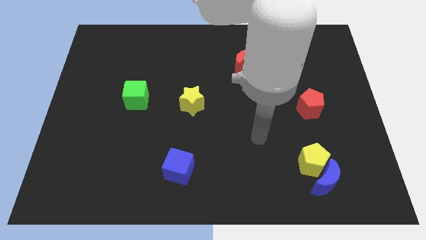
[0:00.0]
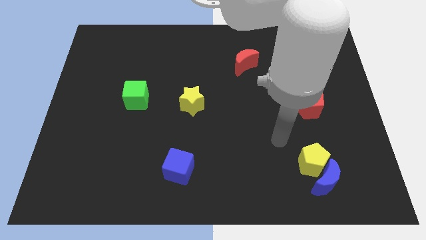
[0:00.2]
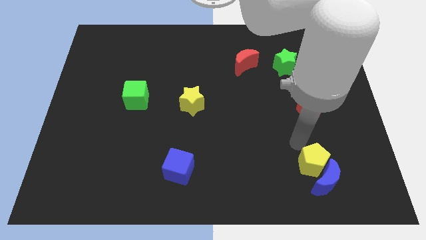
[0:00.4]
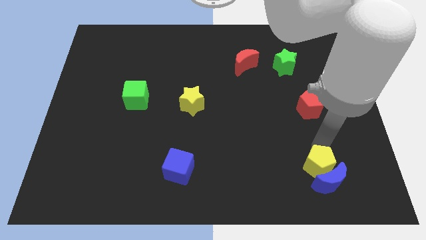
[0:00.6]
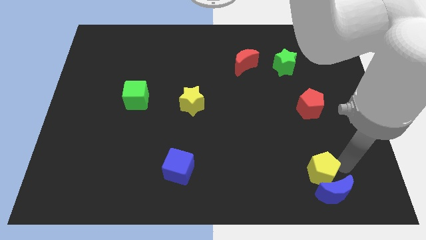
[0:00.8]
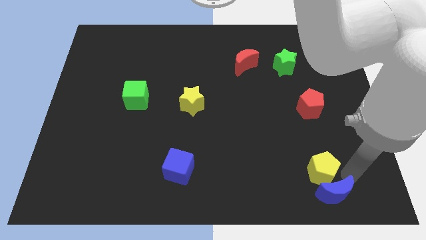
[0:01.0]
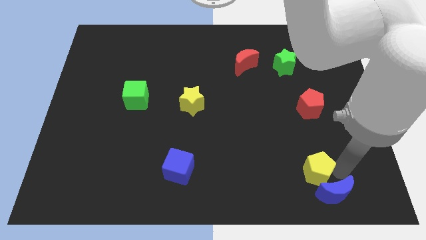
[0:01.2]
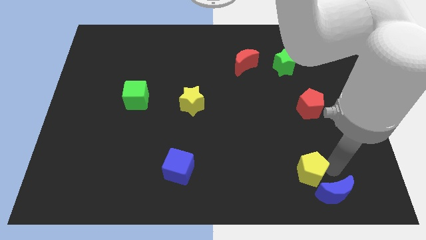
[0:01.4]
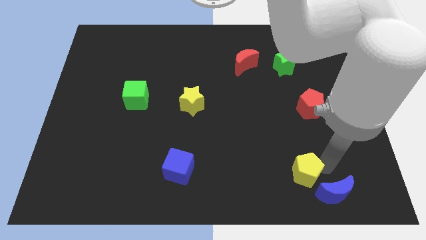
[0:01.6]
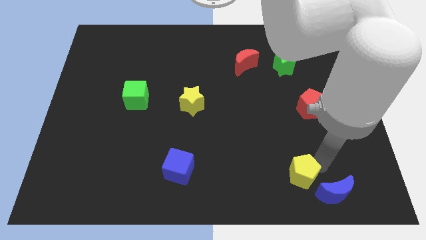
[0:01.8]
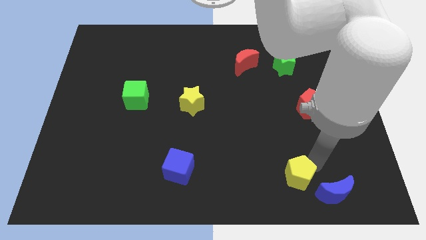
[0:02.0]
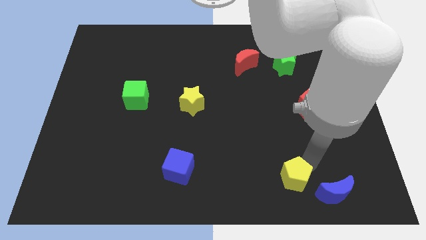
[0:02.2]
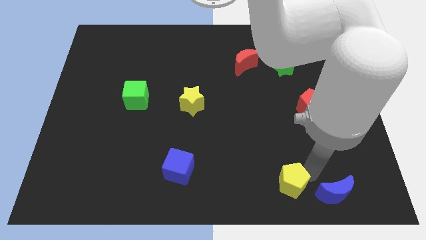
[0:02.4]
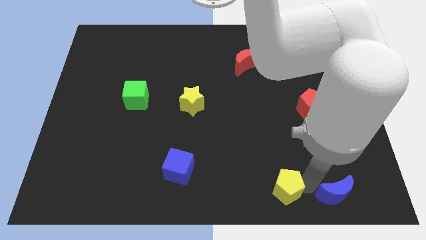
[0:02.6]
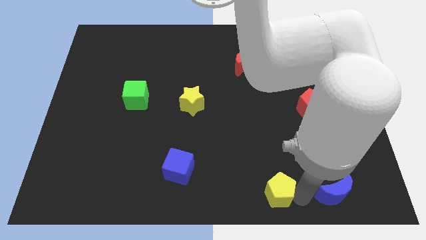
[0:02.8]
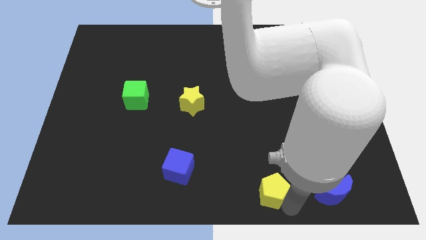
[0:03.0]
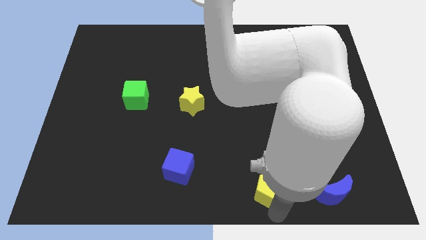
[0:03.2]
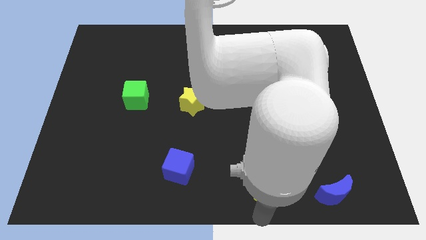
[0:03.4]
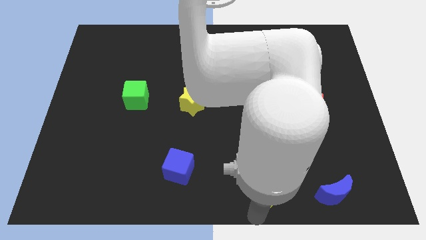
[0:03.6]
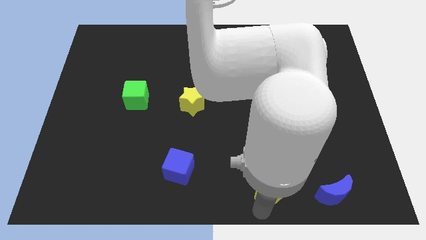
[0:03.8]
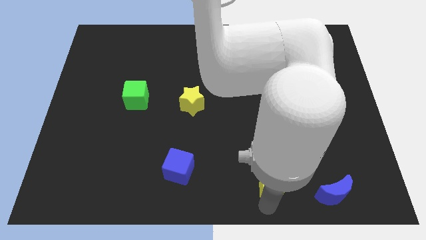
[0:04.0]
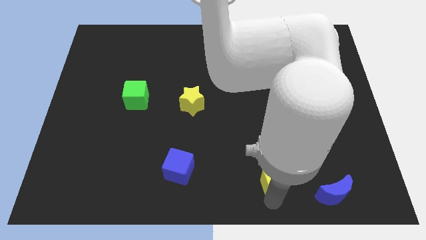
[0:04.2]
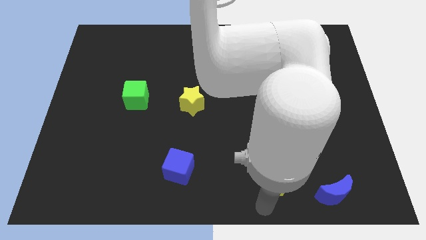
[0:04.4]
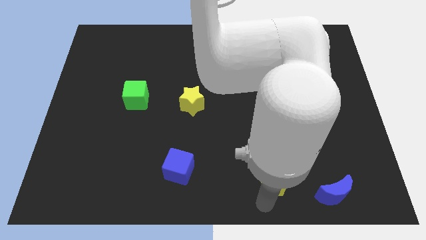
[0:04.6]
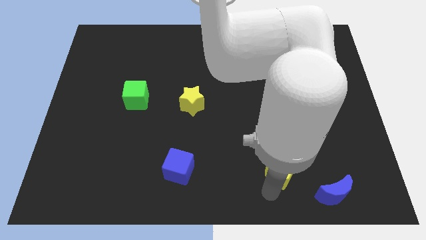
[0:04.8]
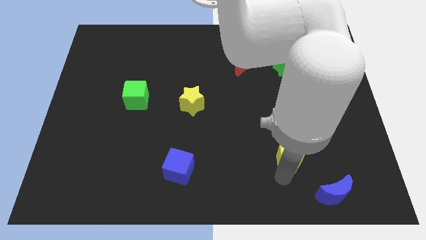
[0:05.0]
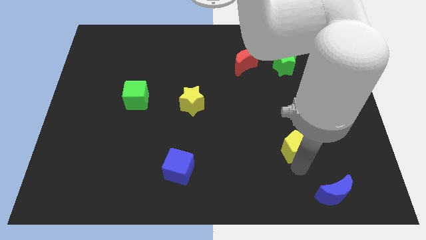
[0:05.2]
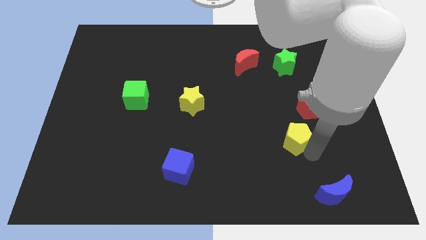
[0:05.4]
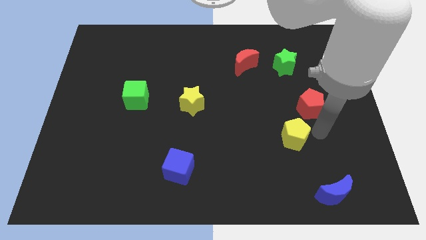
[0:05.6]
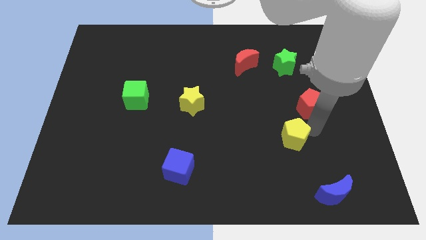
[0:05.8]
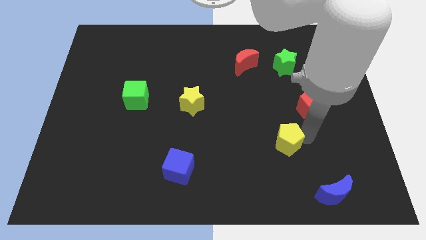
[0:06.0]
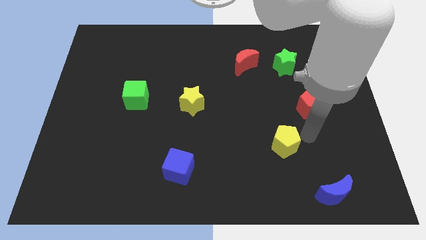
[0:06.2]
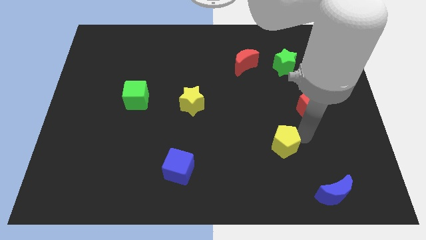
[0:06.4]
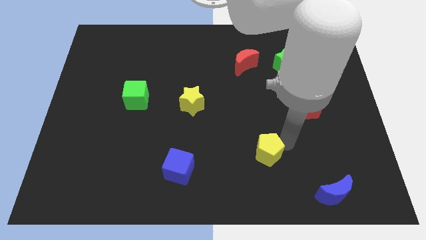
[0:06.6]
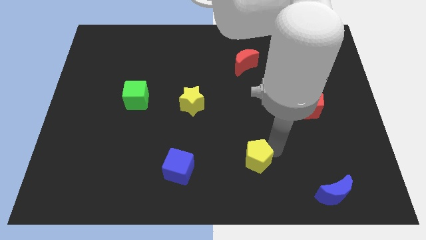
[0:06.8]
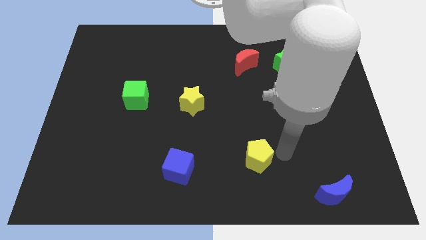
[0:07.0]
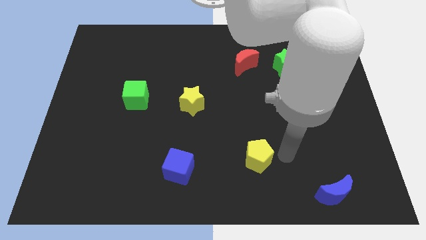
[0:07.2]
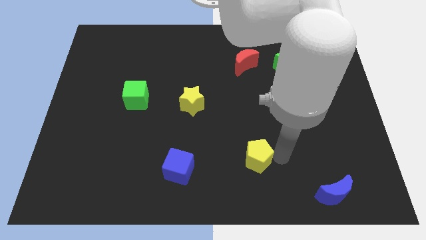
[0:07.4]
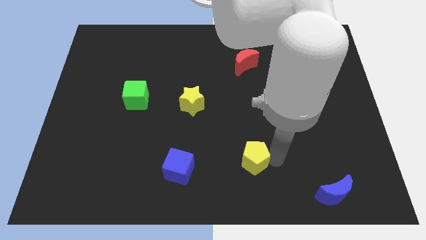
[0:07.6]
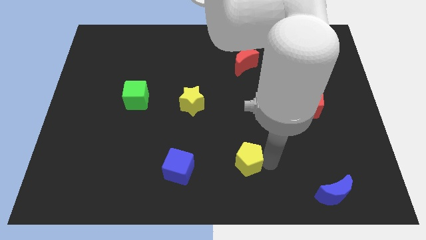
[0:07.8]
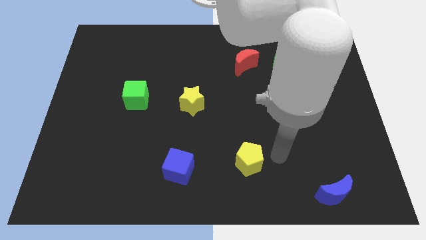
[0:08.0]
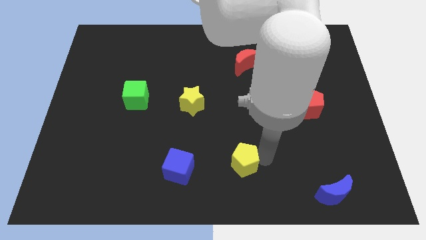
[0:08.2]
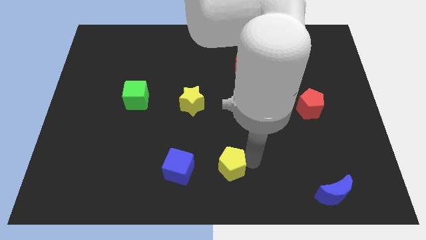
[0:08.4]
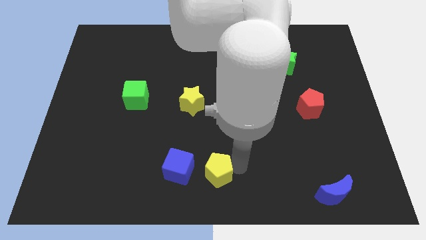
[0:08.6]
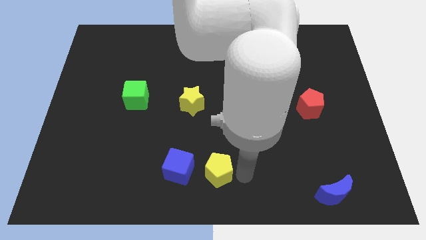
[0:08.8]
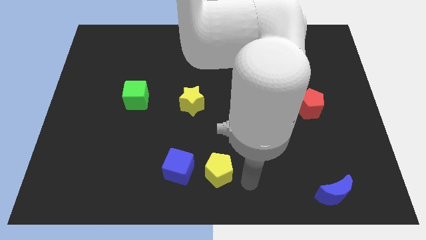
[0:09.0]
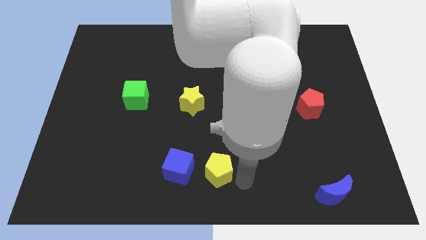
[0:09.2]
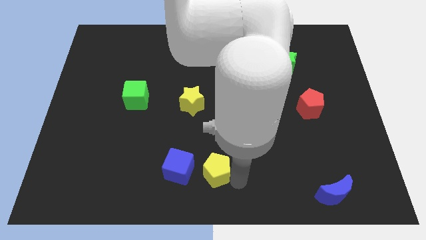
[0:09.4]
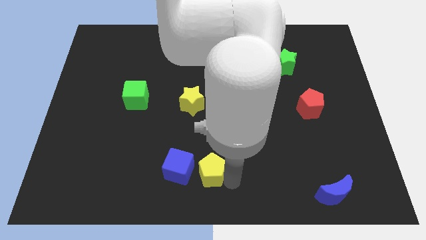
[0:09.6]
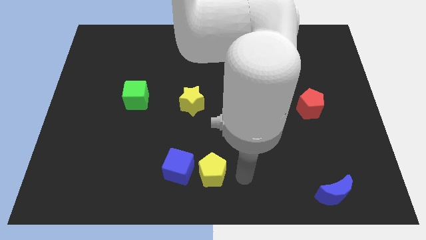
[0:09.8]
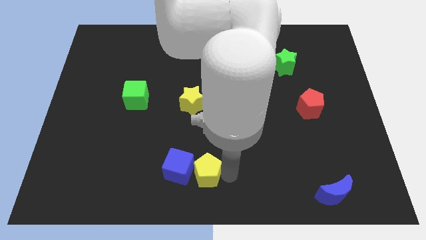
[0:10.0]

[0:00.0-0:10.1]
move the yellow pentagon close to the blue cube

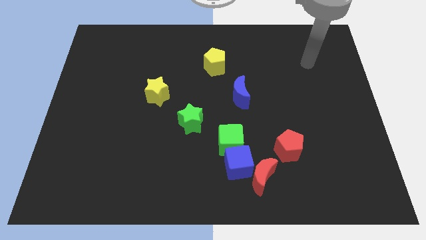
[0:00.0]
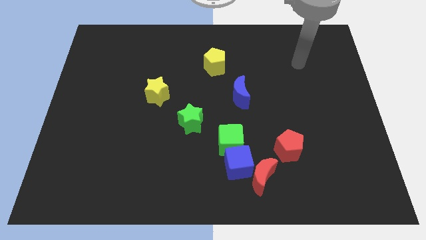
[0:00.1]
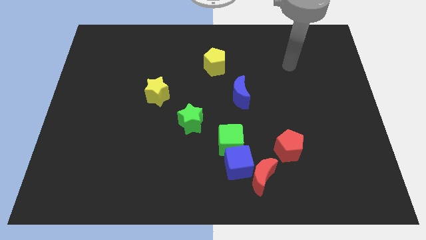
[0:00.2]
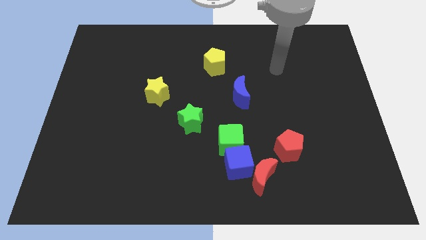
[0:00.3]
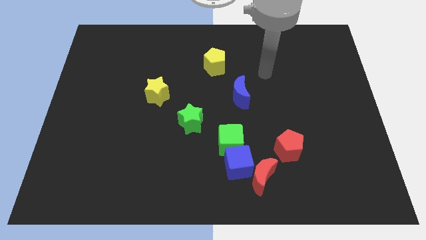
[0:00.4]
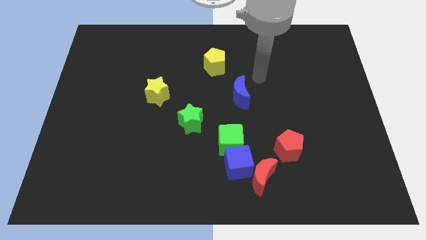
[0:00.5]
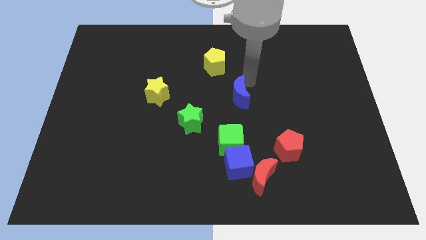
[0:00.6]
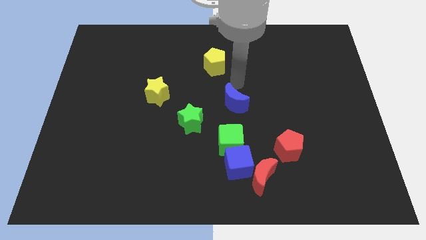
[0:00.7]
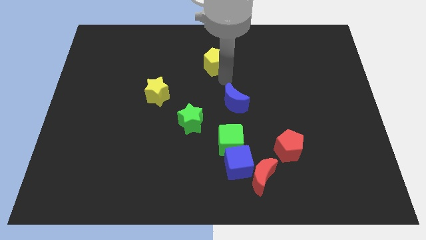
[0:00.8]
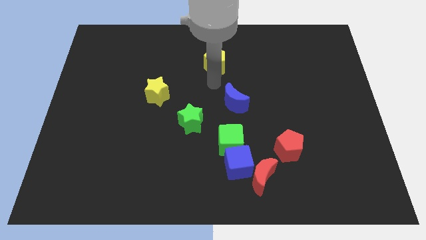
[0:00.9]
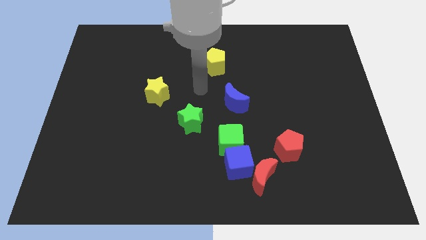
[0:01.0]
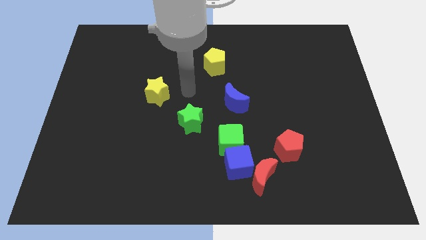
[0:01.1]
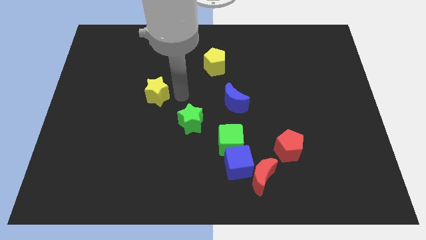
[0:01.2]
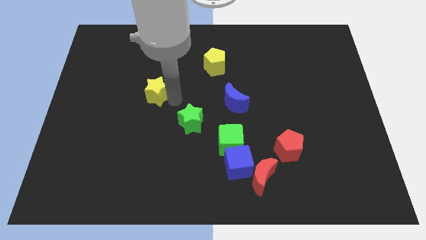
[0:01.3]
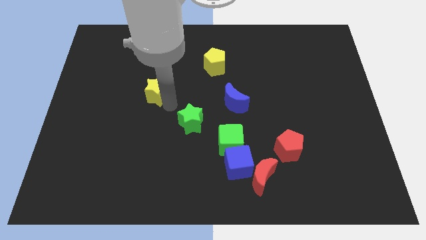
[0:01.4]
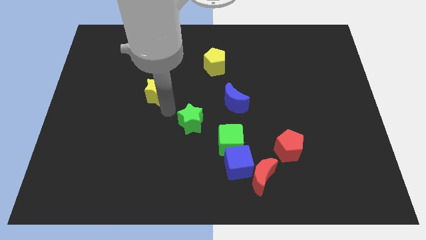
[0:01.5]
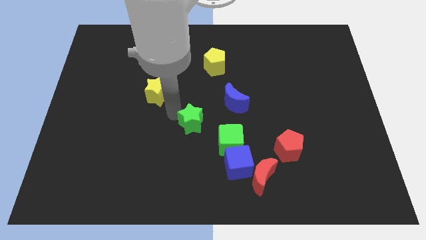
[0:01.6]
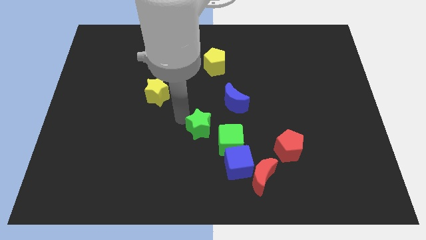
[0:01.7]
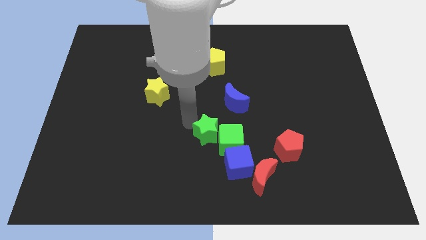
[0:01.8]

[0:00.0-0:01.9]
push the green star next to the green cube
